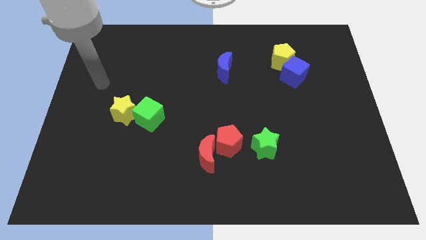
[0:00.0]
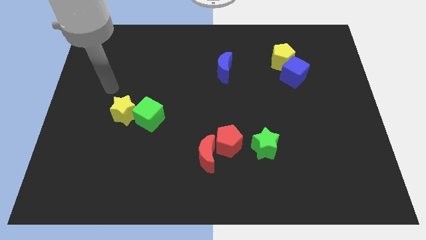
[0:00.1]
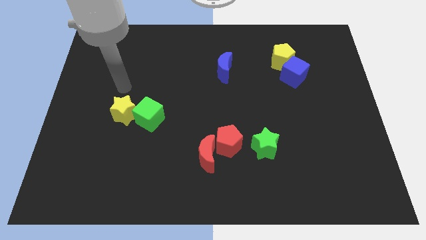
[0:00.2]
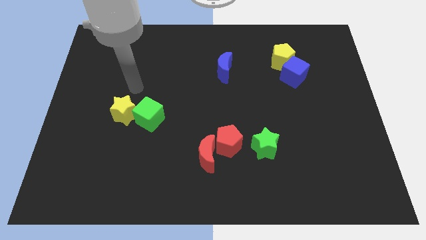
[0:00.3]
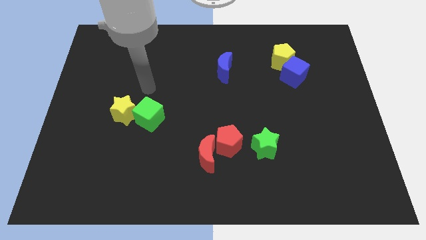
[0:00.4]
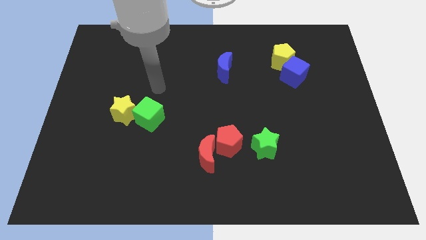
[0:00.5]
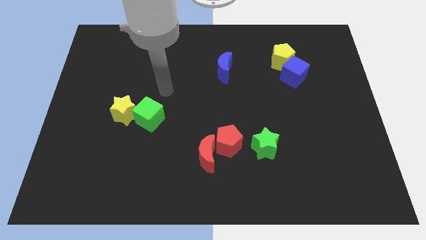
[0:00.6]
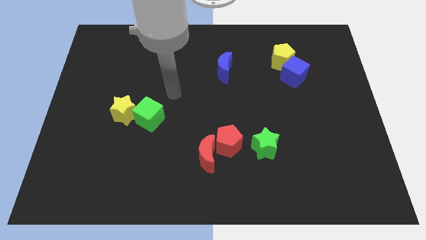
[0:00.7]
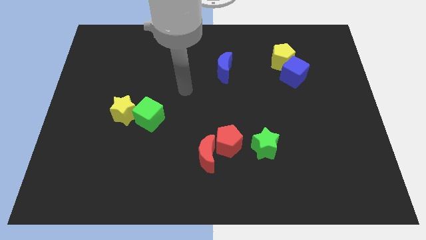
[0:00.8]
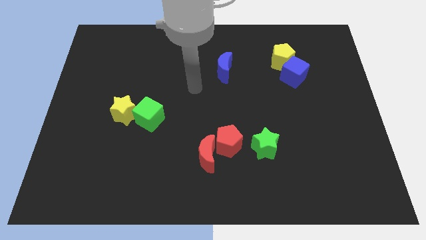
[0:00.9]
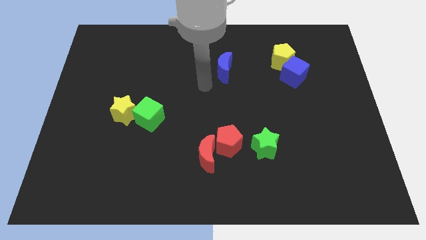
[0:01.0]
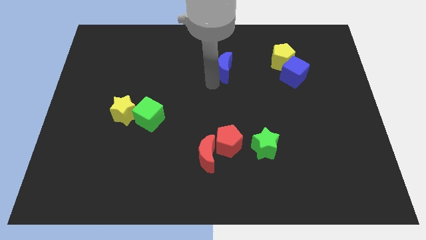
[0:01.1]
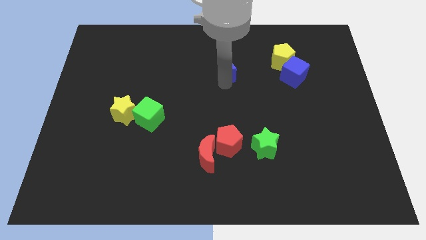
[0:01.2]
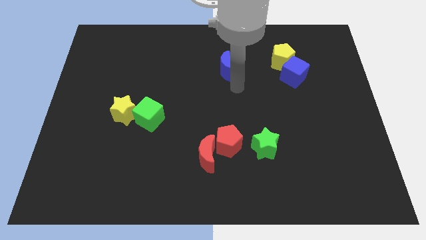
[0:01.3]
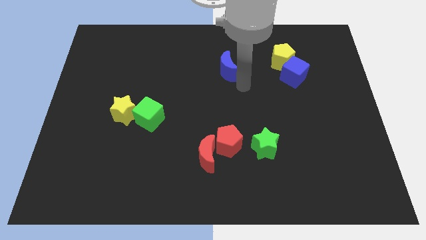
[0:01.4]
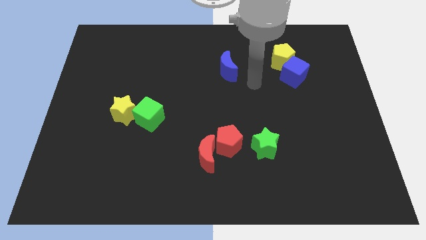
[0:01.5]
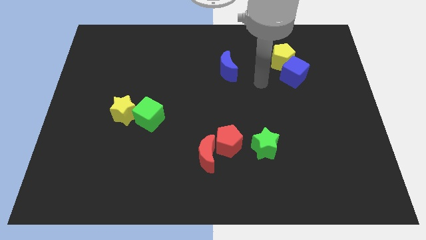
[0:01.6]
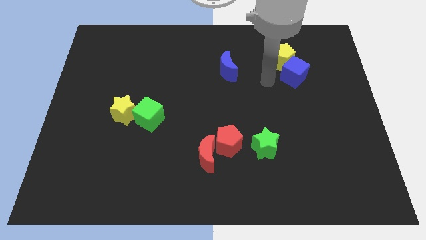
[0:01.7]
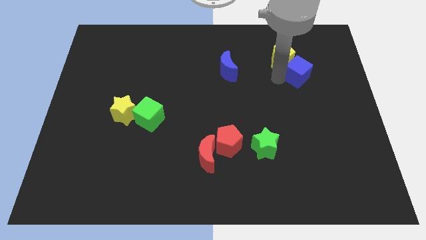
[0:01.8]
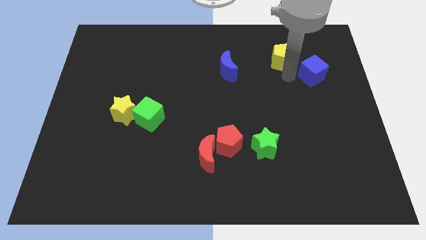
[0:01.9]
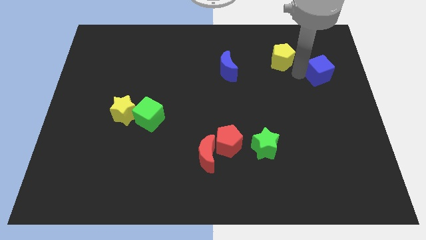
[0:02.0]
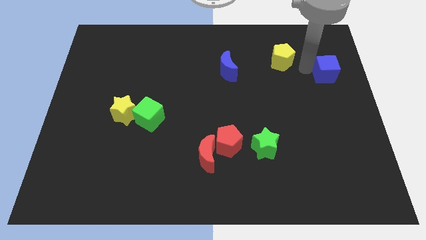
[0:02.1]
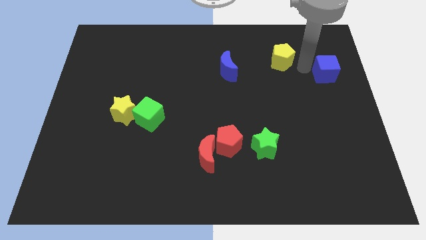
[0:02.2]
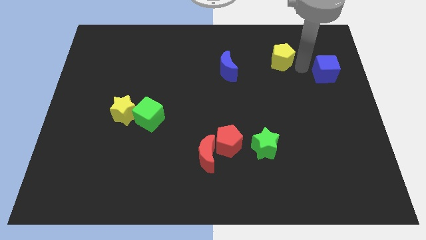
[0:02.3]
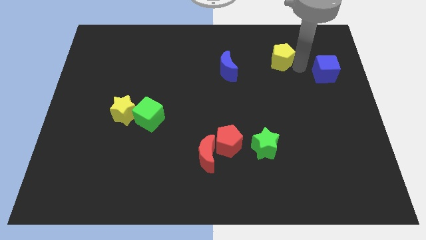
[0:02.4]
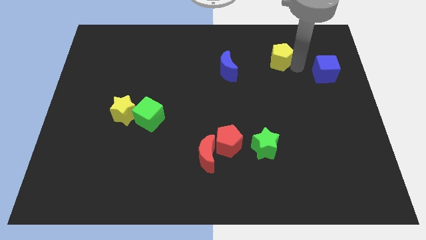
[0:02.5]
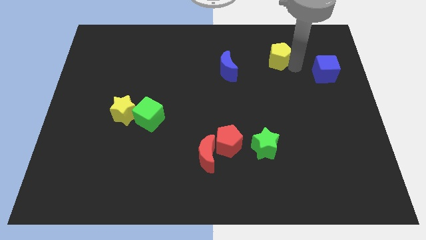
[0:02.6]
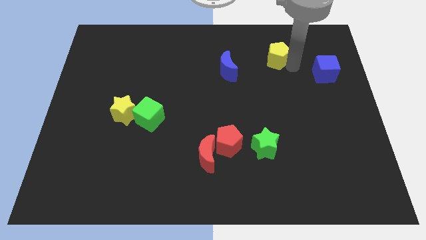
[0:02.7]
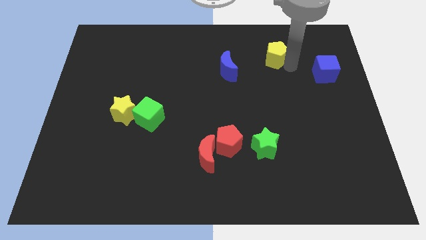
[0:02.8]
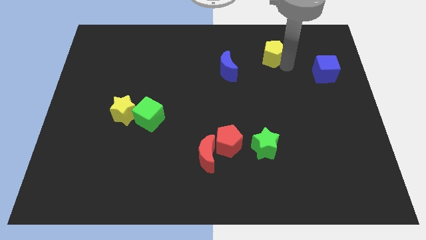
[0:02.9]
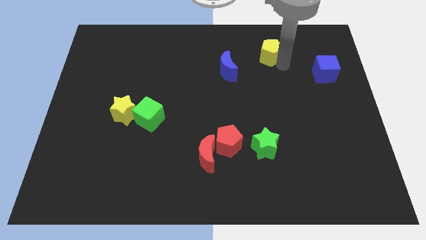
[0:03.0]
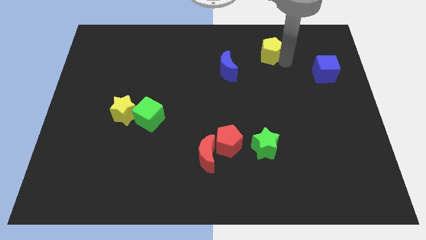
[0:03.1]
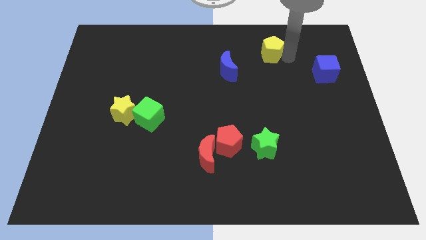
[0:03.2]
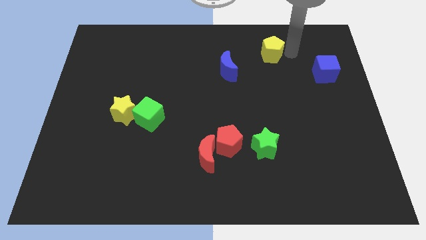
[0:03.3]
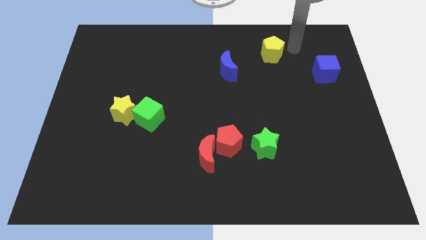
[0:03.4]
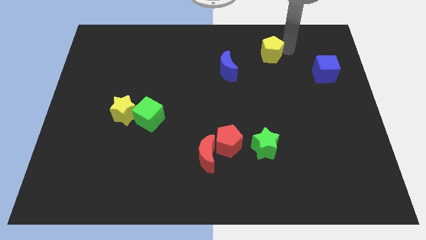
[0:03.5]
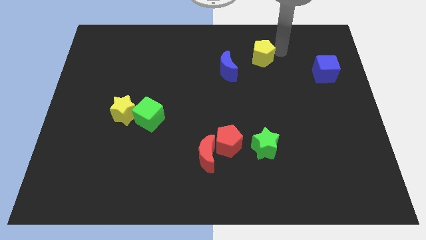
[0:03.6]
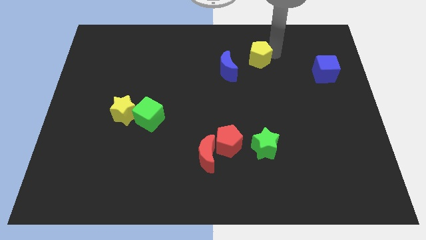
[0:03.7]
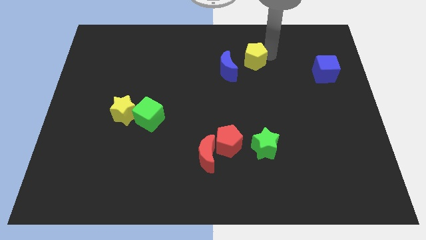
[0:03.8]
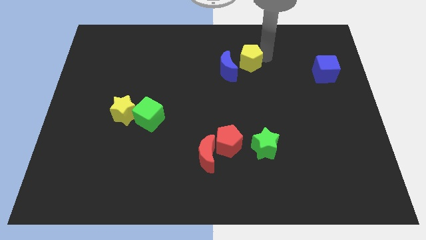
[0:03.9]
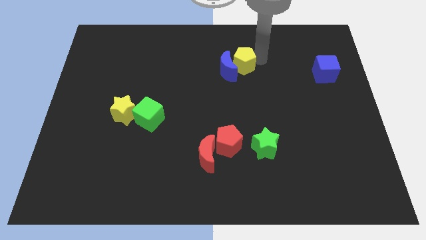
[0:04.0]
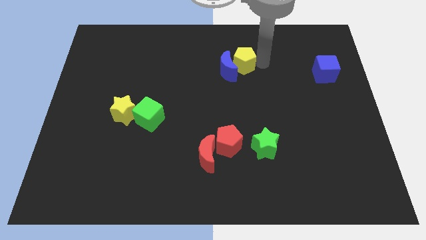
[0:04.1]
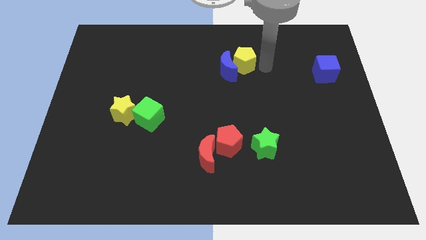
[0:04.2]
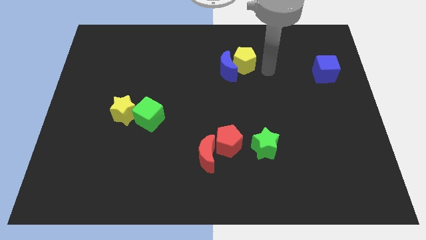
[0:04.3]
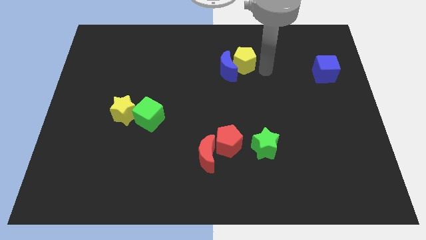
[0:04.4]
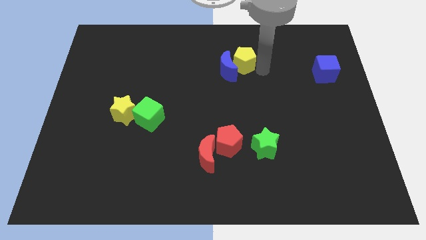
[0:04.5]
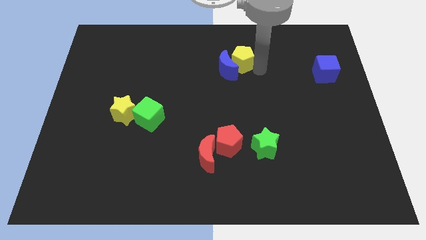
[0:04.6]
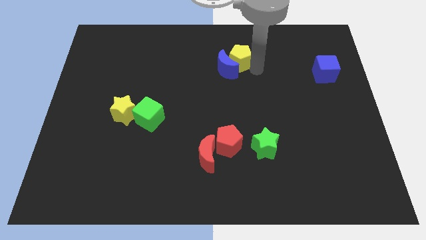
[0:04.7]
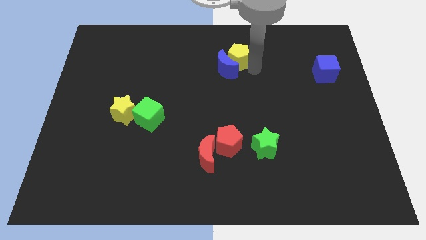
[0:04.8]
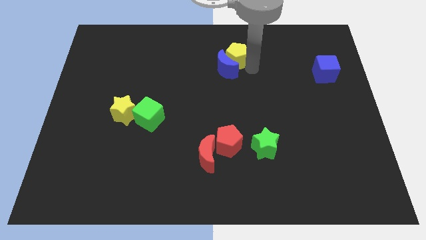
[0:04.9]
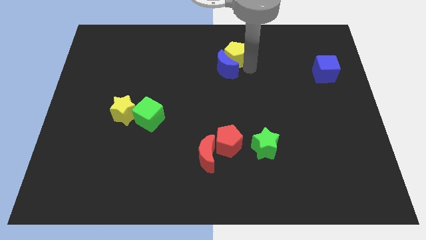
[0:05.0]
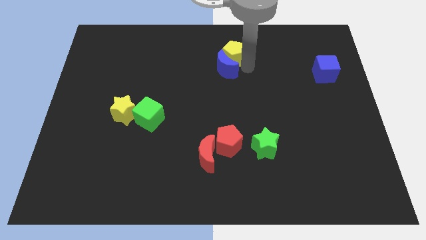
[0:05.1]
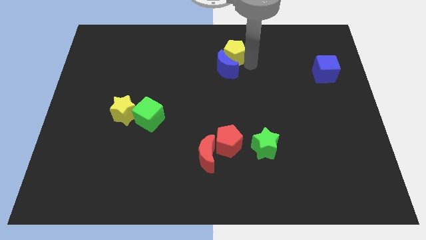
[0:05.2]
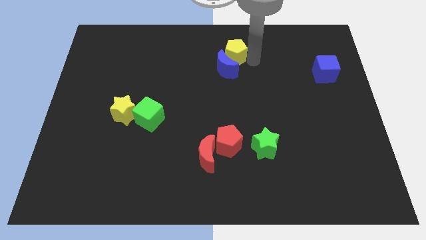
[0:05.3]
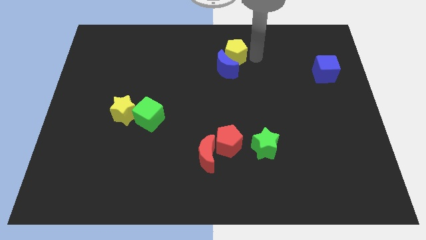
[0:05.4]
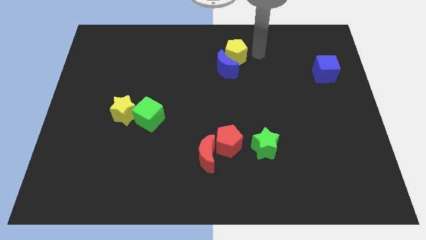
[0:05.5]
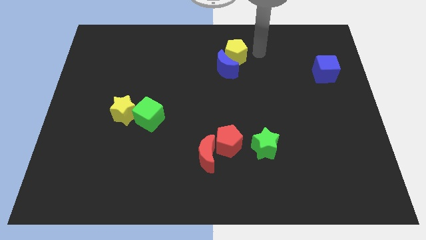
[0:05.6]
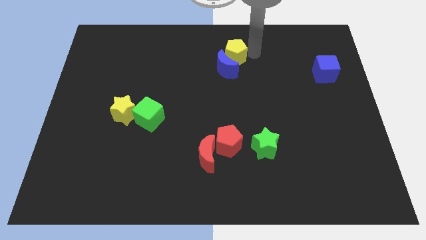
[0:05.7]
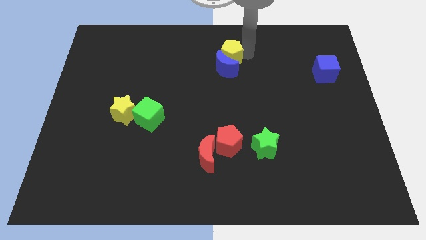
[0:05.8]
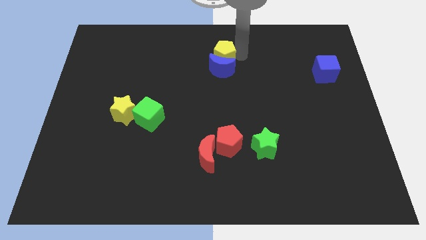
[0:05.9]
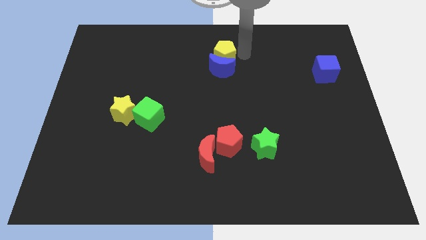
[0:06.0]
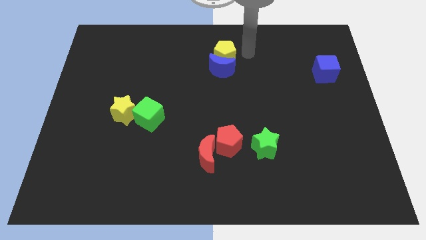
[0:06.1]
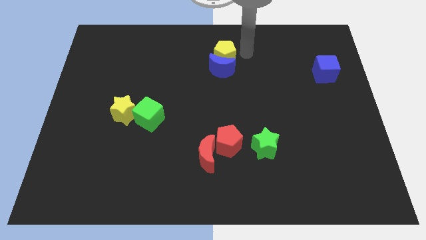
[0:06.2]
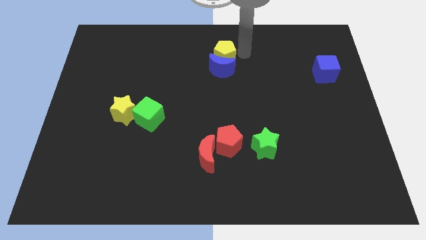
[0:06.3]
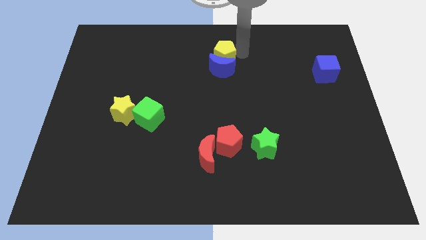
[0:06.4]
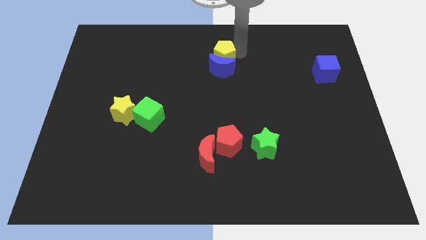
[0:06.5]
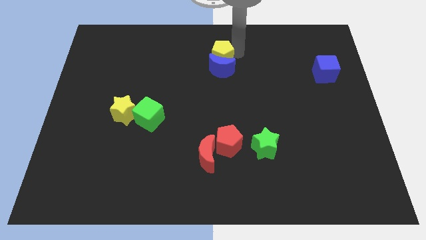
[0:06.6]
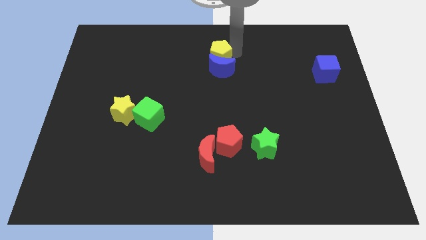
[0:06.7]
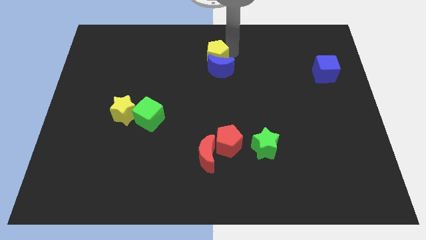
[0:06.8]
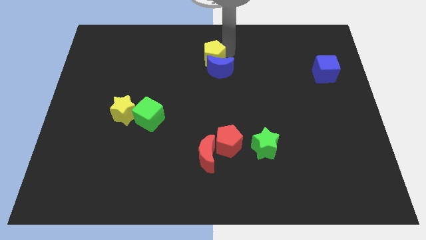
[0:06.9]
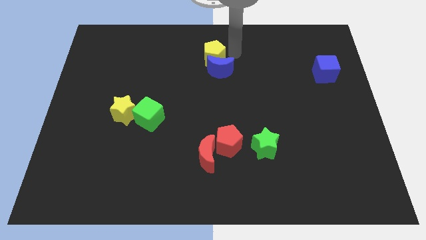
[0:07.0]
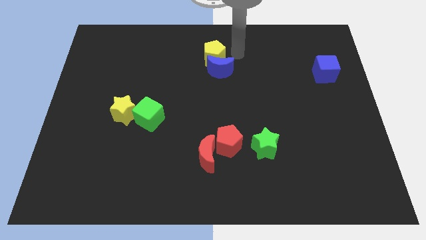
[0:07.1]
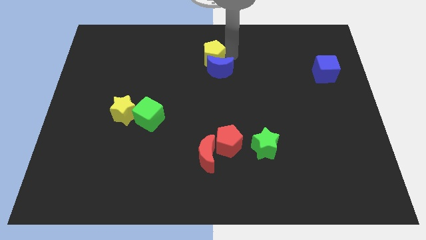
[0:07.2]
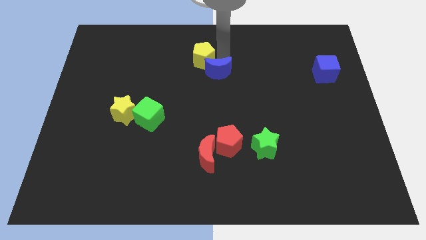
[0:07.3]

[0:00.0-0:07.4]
move the yellow pentagon left

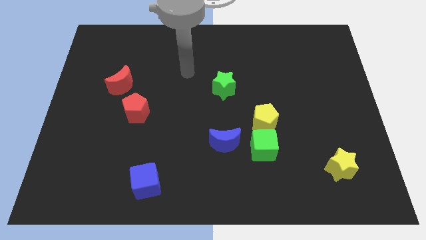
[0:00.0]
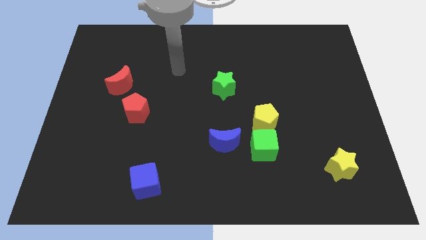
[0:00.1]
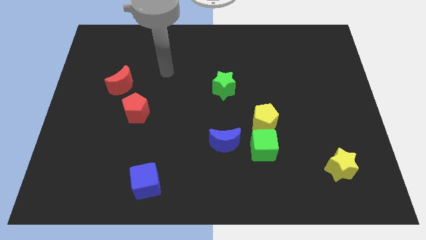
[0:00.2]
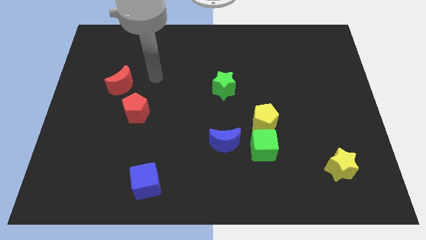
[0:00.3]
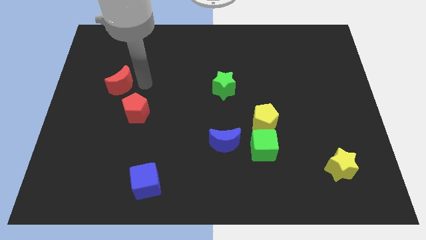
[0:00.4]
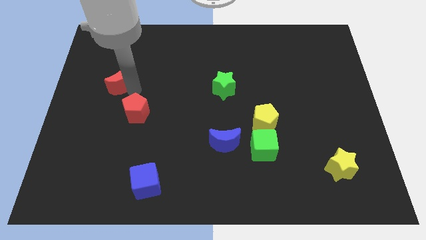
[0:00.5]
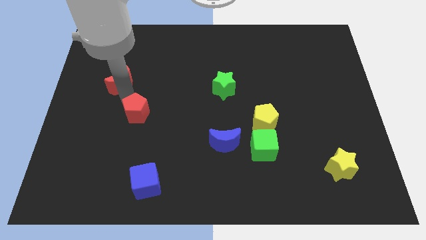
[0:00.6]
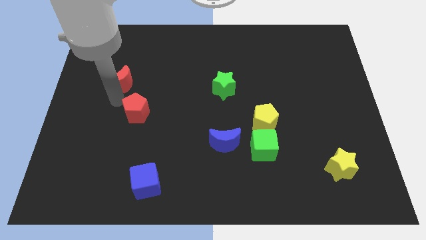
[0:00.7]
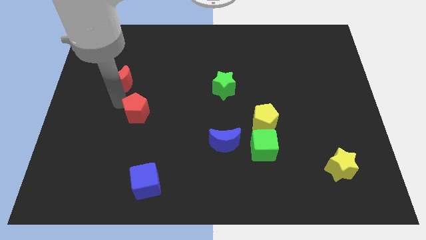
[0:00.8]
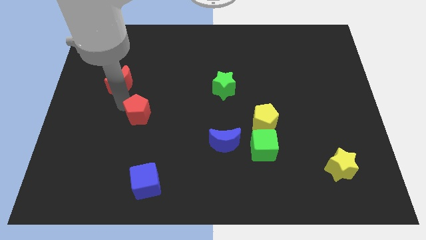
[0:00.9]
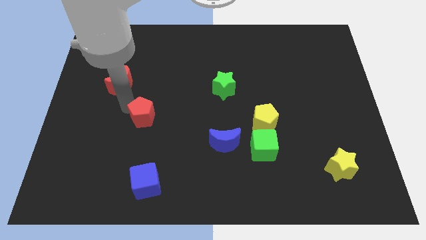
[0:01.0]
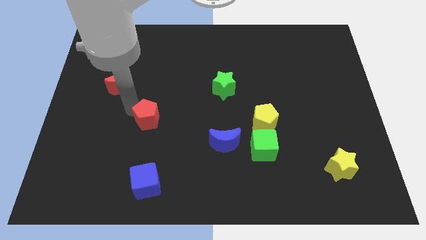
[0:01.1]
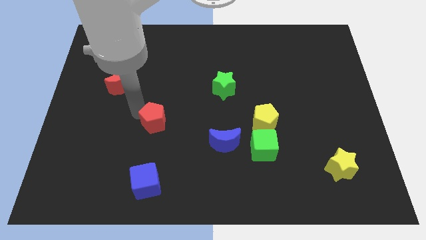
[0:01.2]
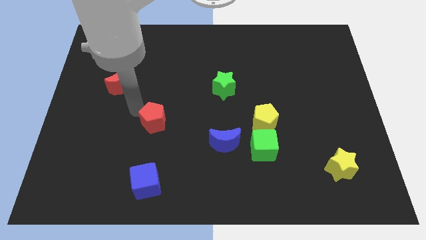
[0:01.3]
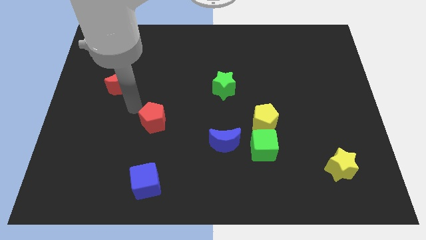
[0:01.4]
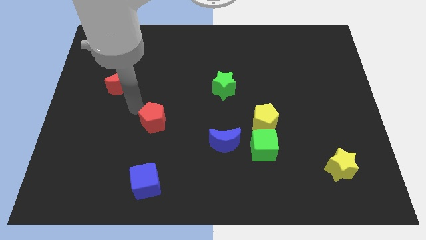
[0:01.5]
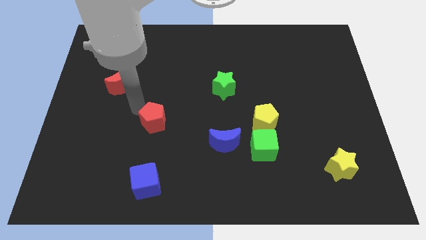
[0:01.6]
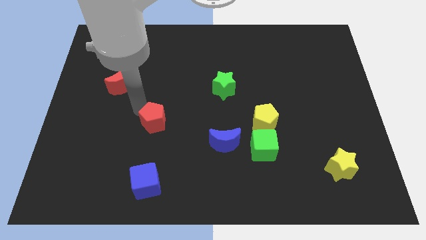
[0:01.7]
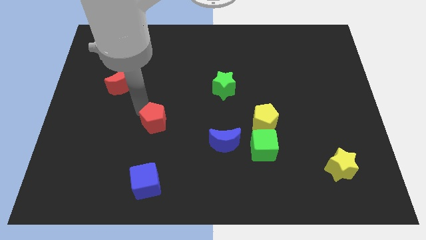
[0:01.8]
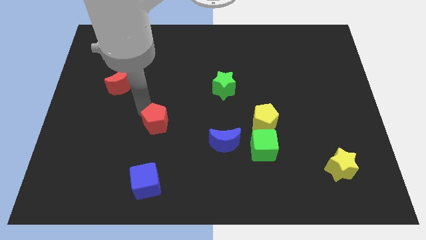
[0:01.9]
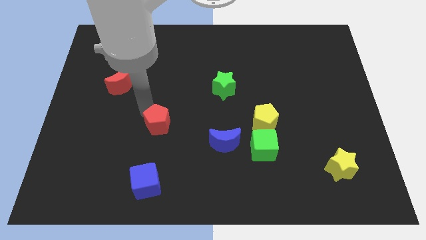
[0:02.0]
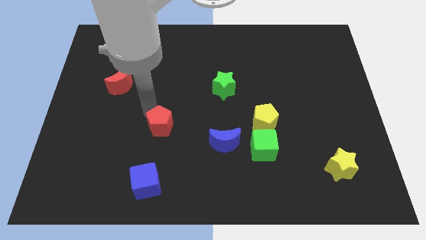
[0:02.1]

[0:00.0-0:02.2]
push the red pentagon a bit down and to the right
